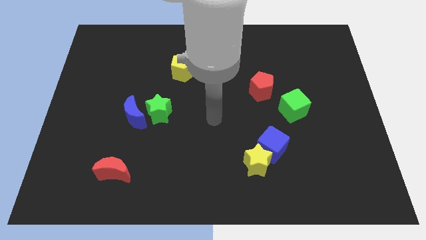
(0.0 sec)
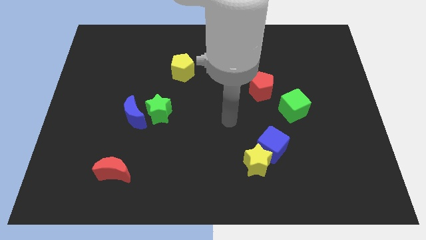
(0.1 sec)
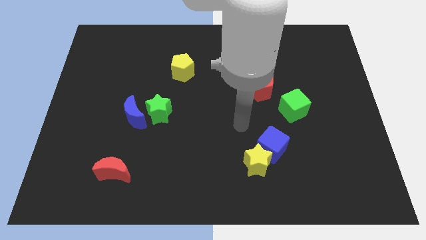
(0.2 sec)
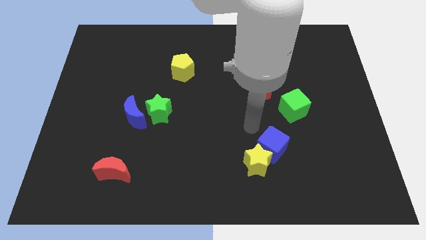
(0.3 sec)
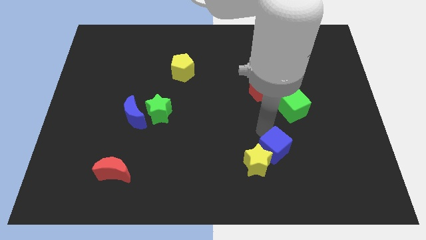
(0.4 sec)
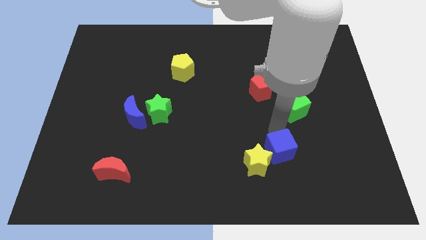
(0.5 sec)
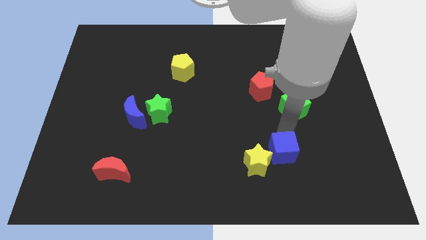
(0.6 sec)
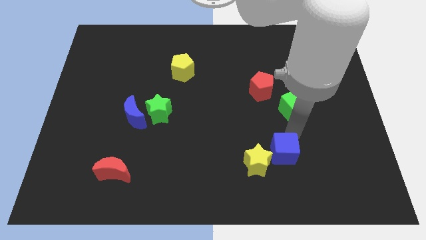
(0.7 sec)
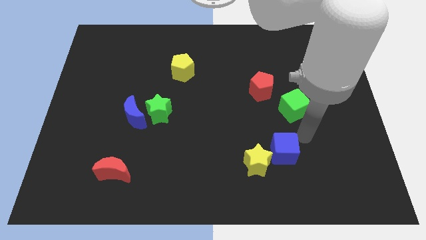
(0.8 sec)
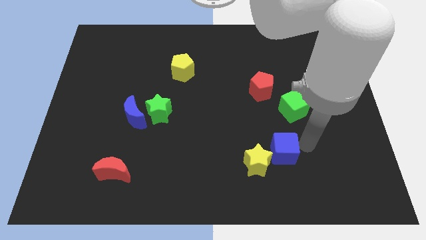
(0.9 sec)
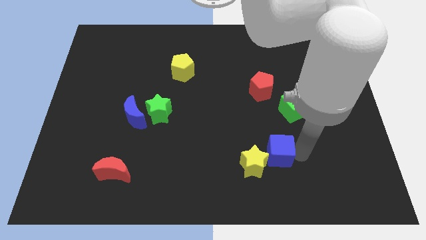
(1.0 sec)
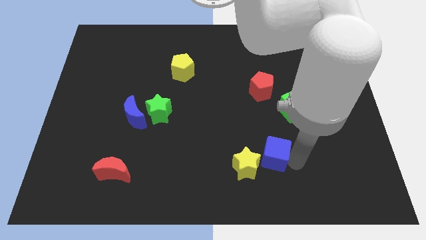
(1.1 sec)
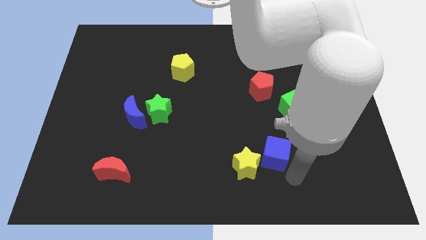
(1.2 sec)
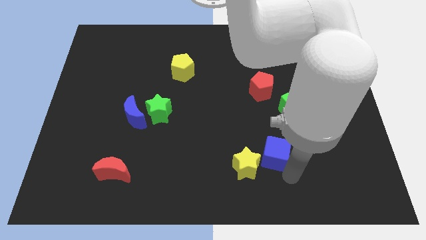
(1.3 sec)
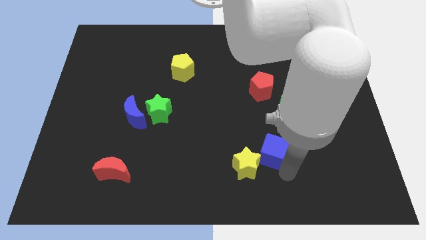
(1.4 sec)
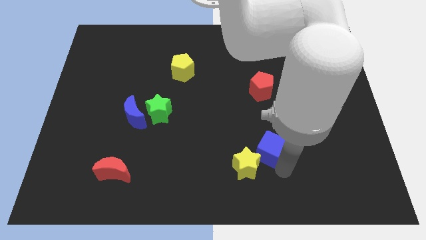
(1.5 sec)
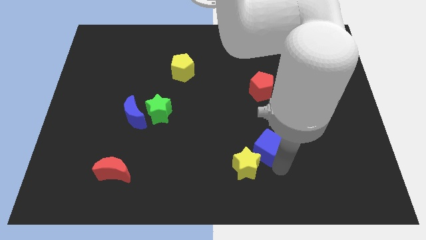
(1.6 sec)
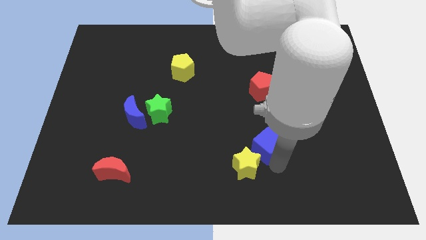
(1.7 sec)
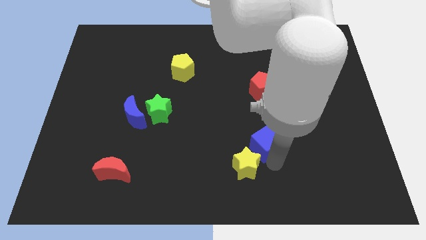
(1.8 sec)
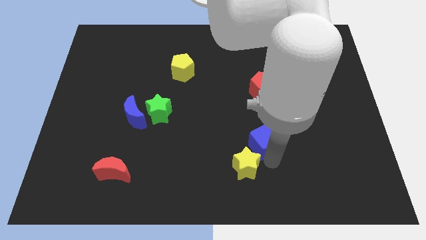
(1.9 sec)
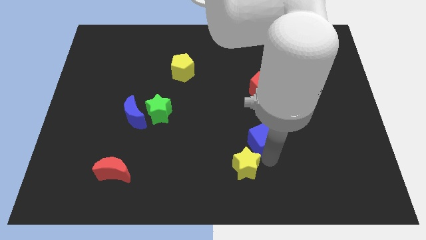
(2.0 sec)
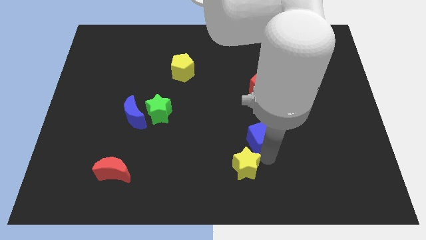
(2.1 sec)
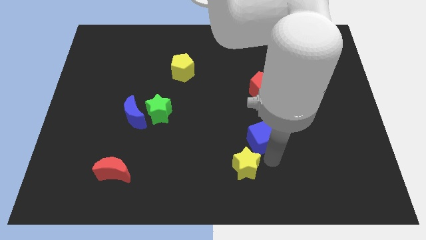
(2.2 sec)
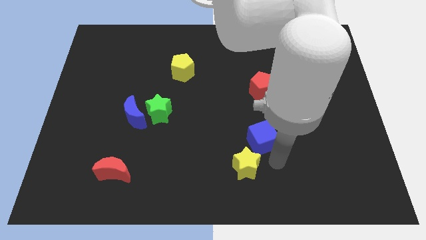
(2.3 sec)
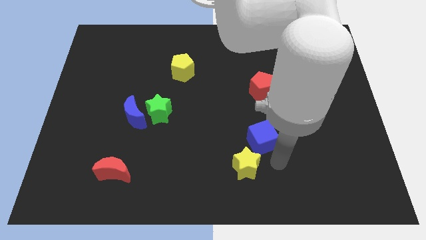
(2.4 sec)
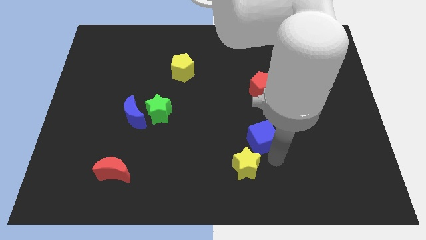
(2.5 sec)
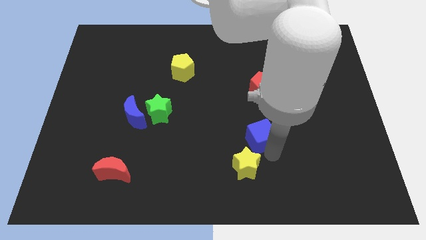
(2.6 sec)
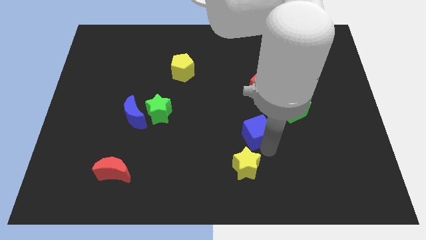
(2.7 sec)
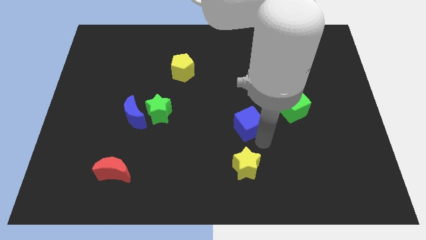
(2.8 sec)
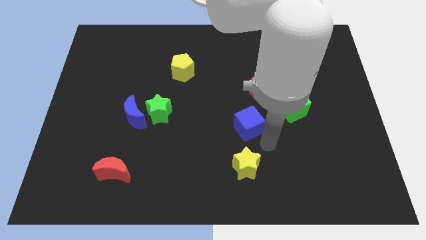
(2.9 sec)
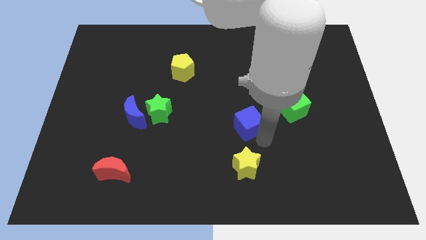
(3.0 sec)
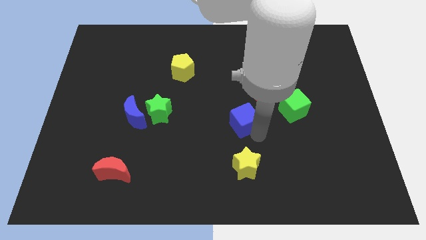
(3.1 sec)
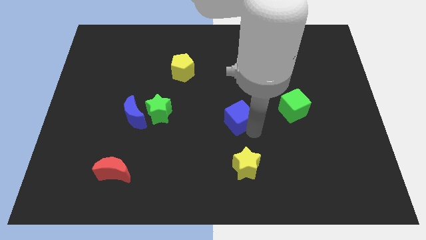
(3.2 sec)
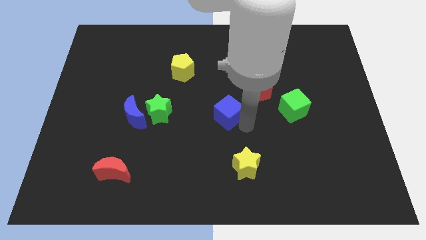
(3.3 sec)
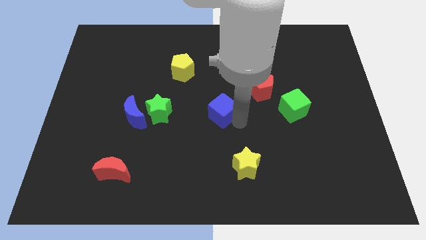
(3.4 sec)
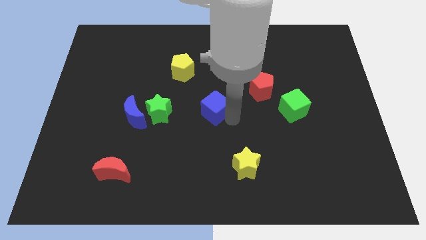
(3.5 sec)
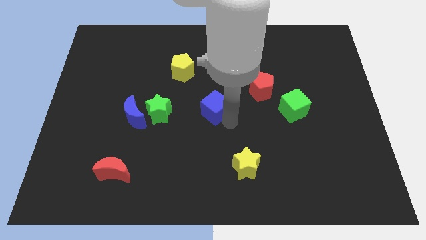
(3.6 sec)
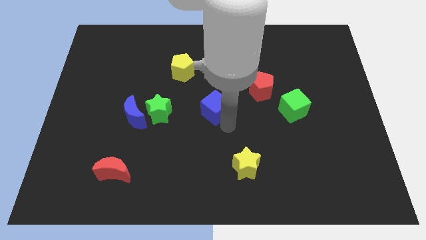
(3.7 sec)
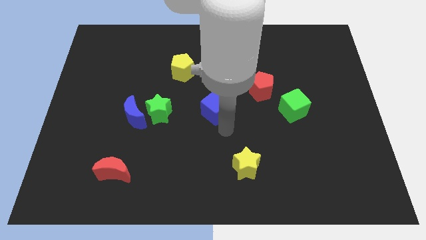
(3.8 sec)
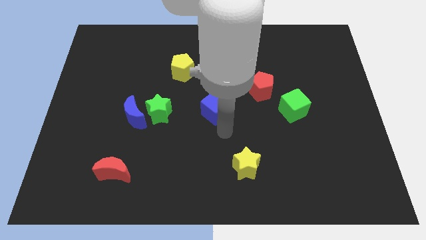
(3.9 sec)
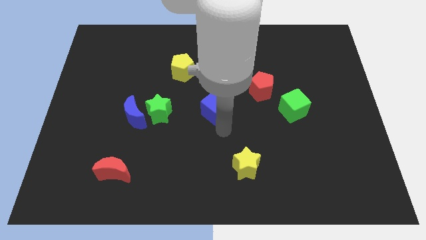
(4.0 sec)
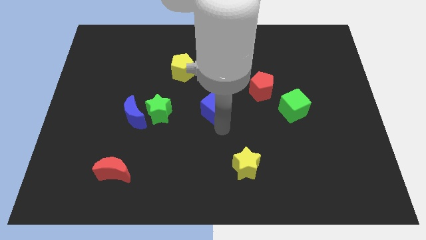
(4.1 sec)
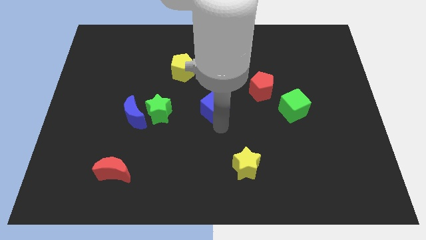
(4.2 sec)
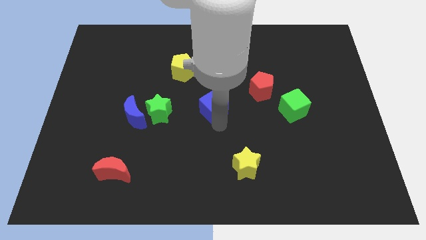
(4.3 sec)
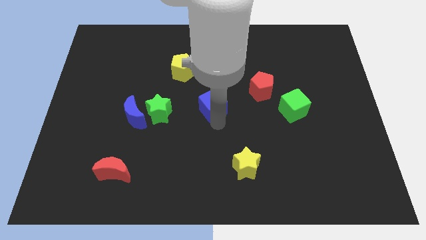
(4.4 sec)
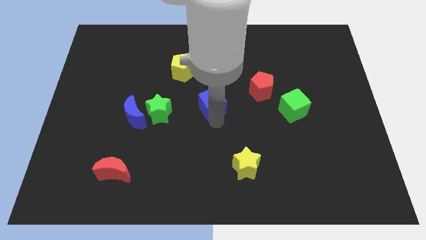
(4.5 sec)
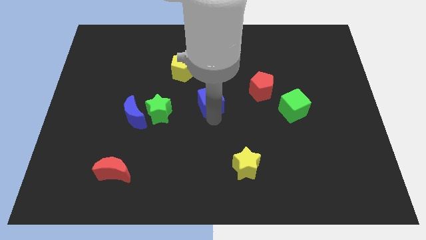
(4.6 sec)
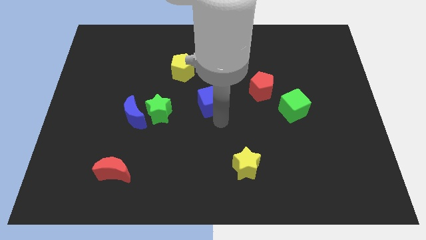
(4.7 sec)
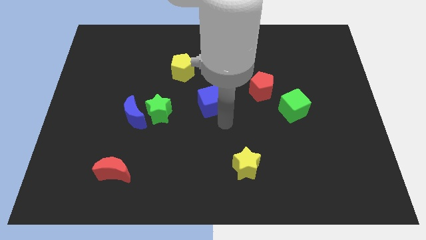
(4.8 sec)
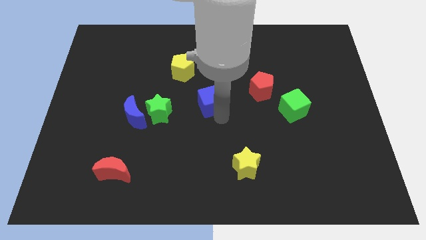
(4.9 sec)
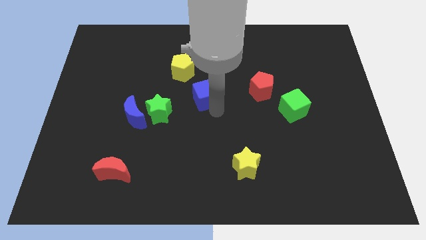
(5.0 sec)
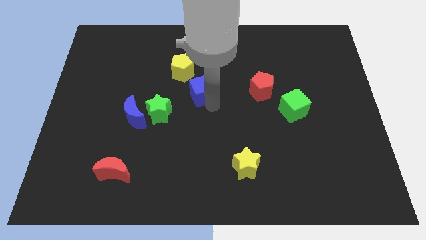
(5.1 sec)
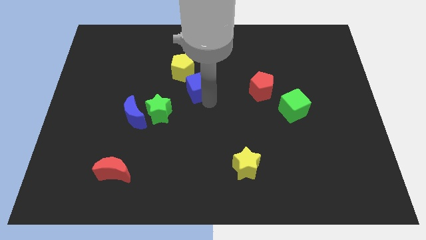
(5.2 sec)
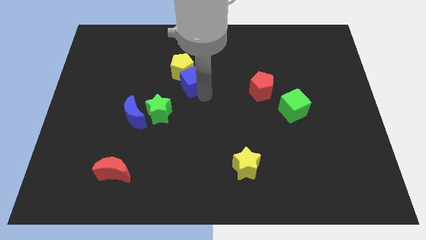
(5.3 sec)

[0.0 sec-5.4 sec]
put the blue cube to the yellow pentagon

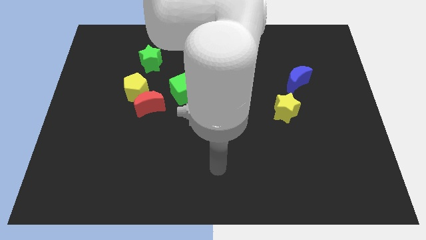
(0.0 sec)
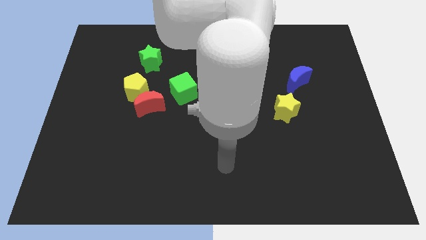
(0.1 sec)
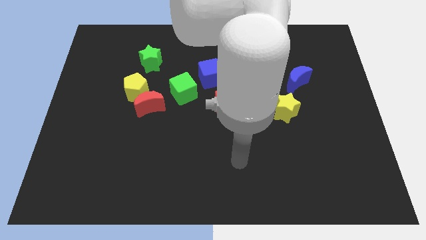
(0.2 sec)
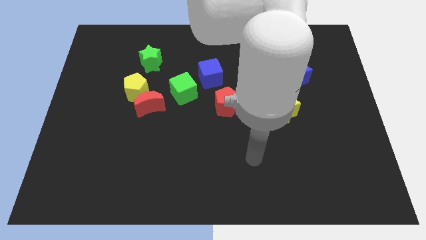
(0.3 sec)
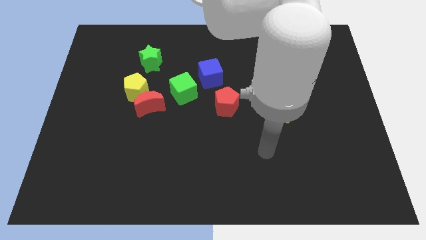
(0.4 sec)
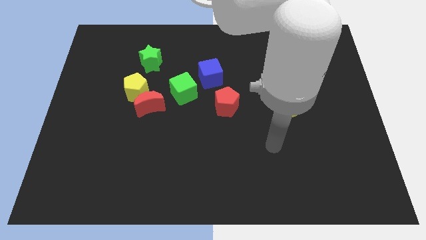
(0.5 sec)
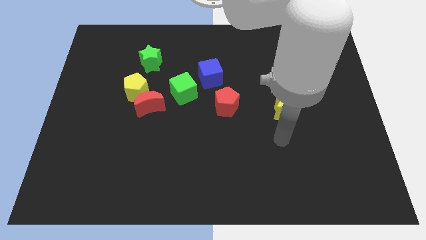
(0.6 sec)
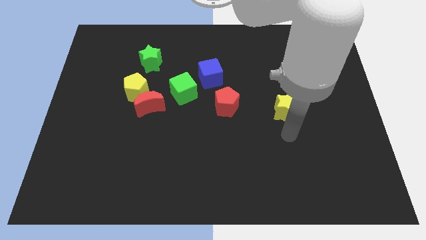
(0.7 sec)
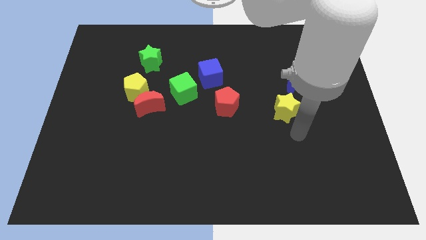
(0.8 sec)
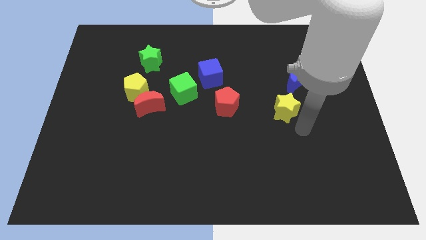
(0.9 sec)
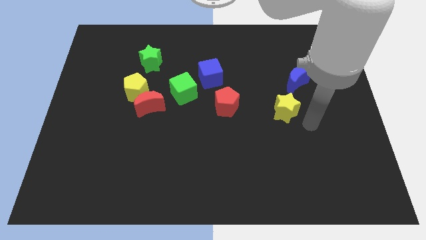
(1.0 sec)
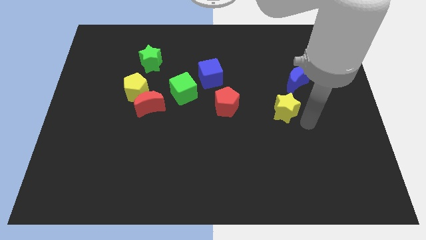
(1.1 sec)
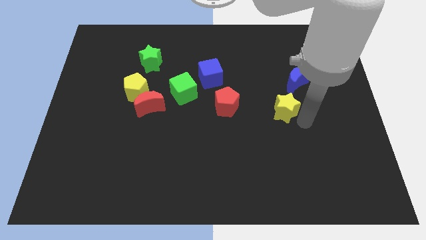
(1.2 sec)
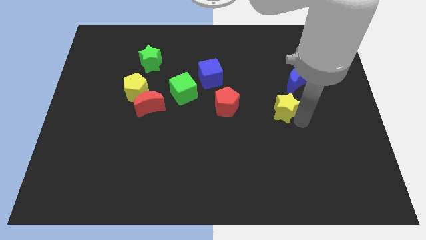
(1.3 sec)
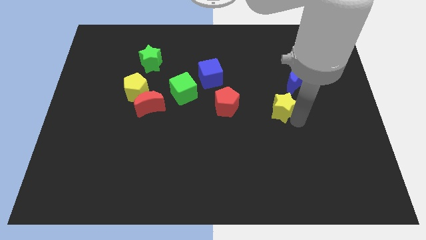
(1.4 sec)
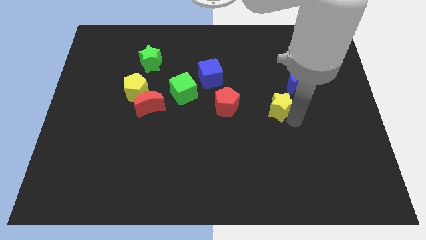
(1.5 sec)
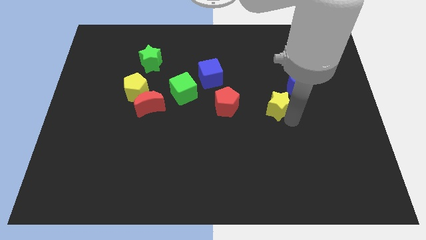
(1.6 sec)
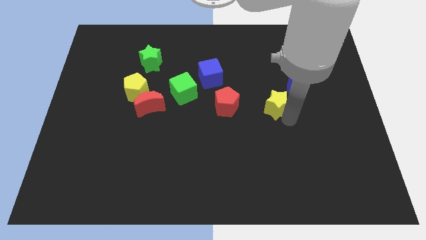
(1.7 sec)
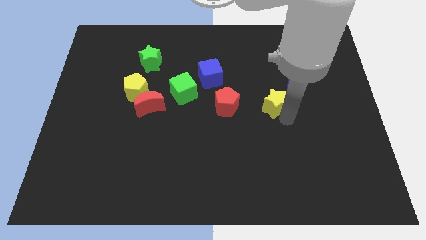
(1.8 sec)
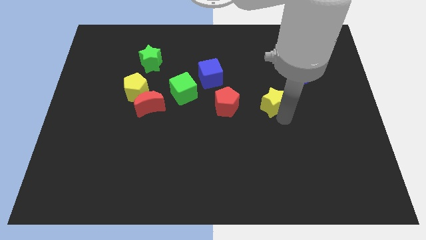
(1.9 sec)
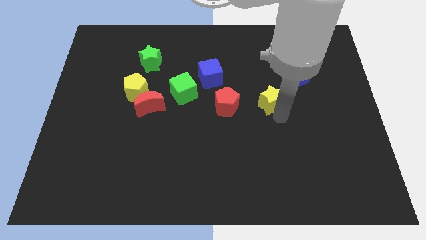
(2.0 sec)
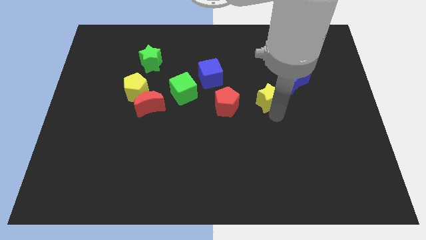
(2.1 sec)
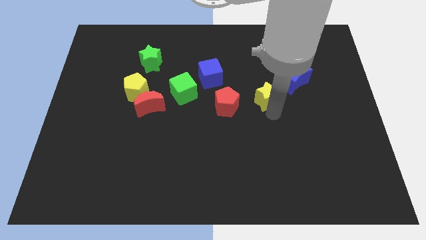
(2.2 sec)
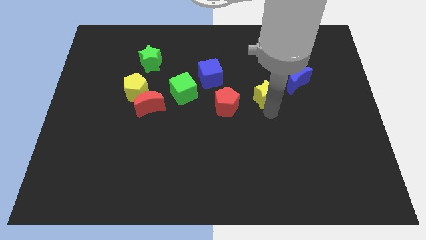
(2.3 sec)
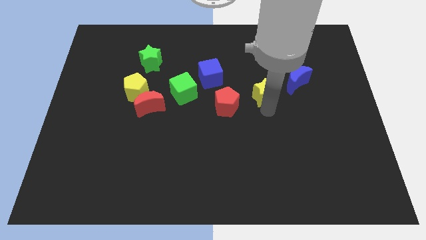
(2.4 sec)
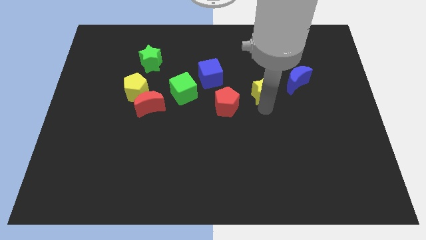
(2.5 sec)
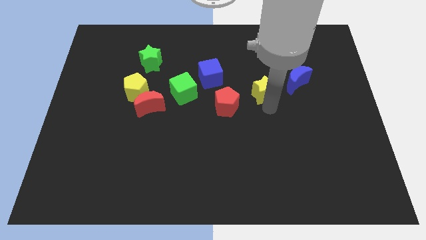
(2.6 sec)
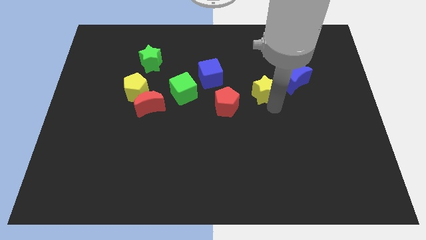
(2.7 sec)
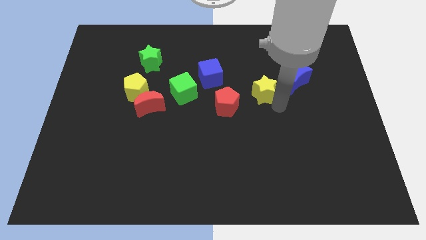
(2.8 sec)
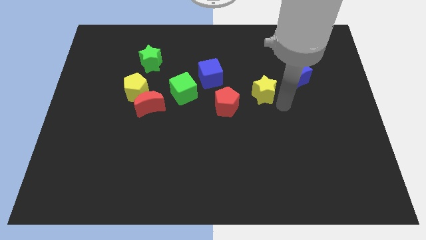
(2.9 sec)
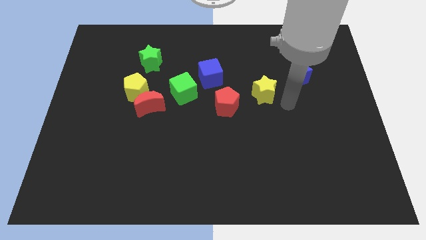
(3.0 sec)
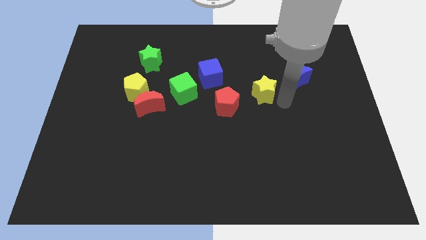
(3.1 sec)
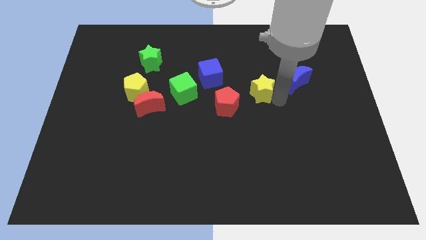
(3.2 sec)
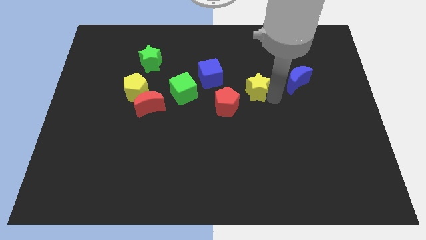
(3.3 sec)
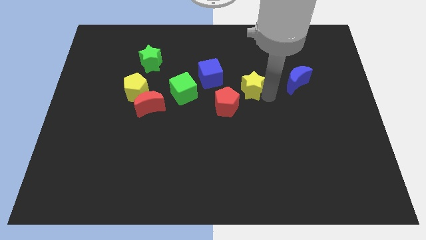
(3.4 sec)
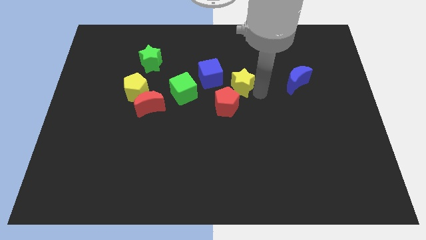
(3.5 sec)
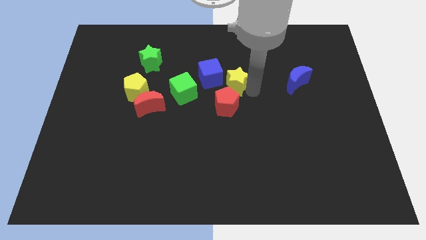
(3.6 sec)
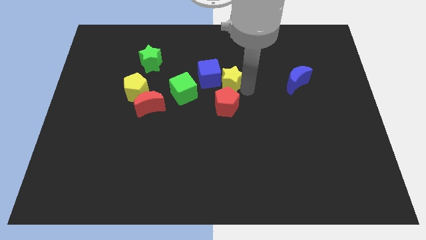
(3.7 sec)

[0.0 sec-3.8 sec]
move the yellow star to the blue cube
